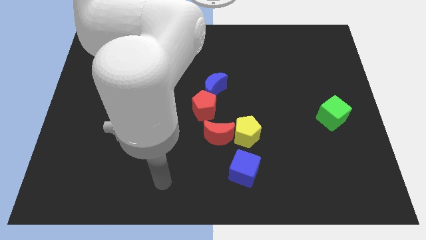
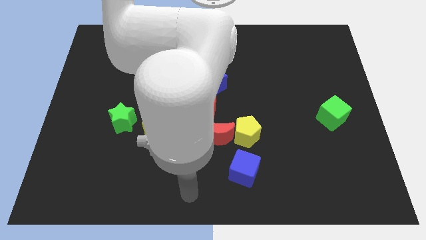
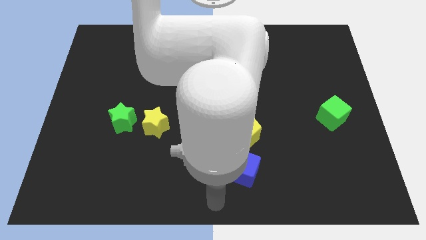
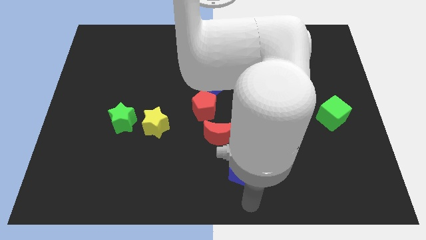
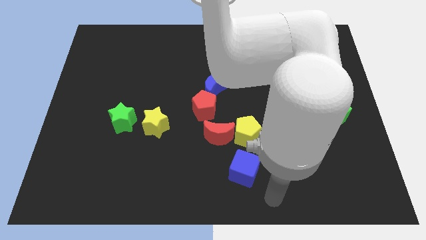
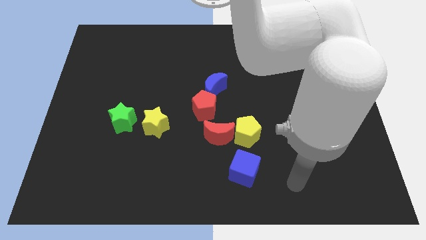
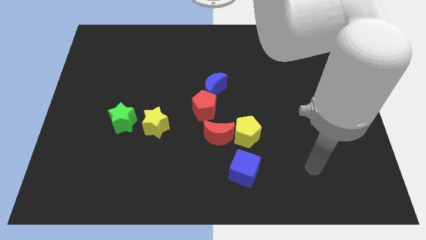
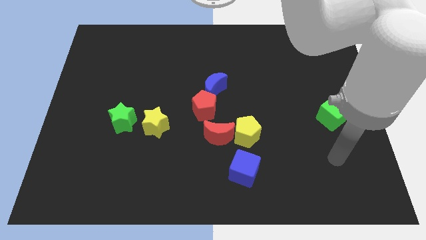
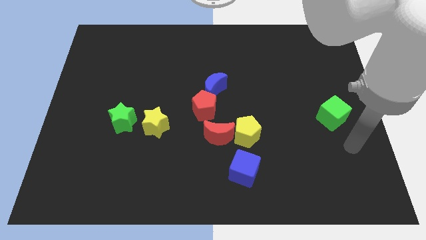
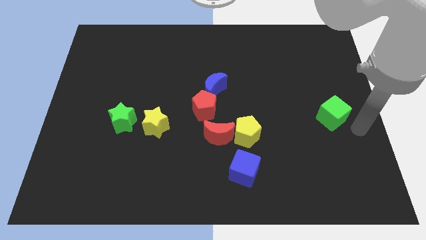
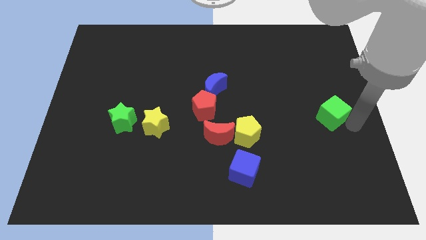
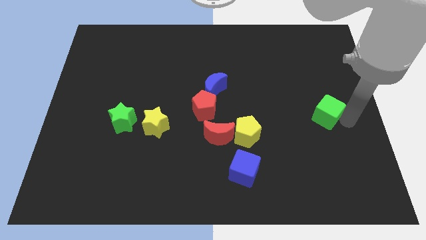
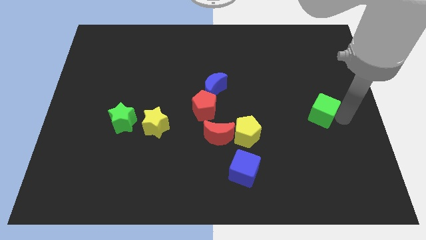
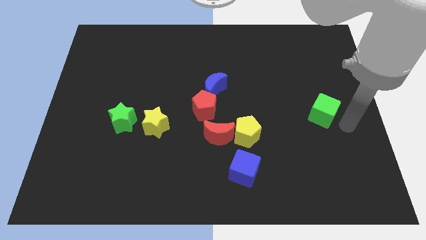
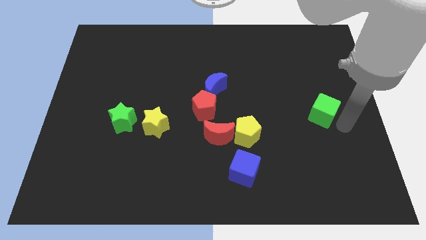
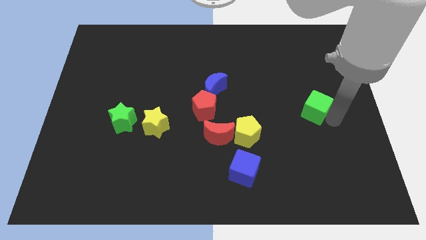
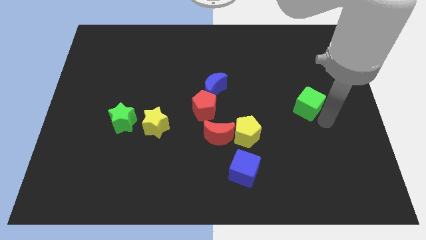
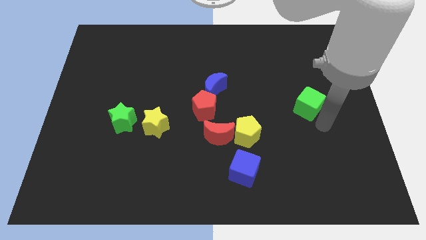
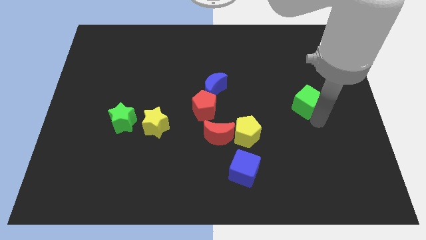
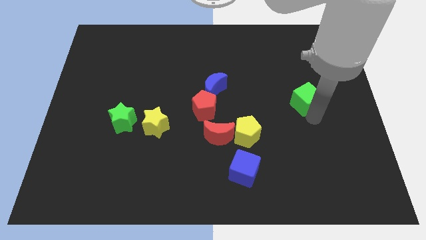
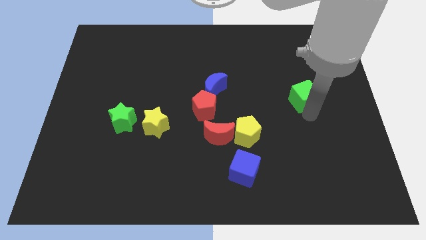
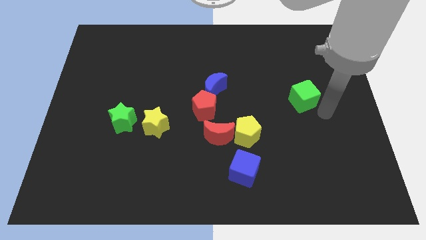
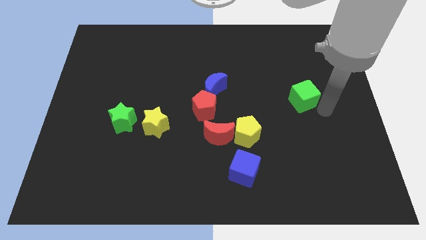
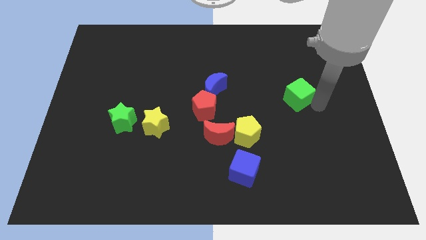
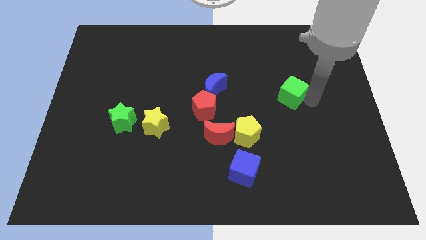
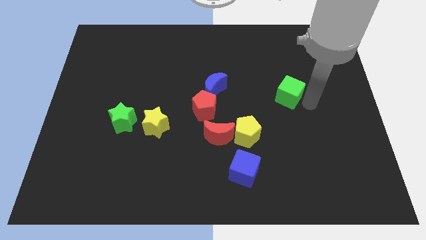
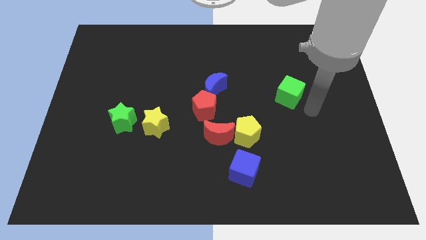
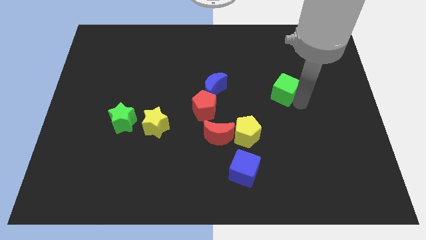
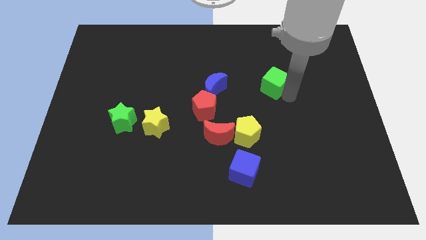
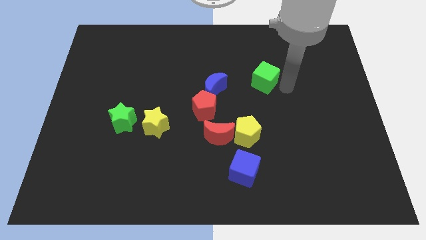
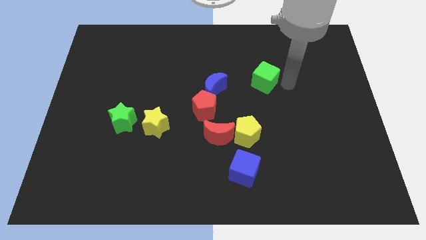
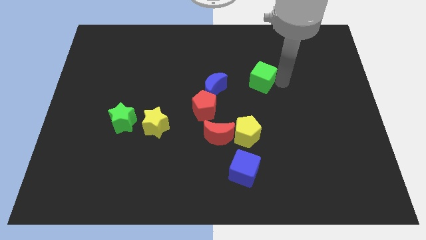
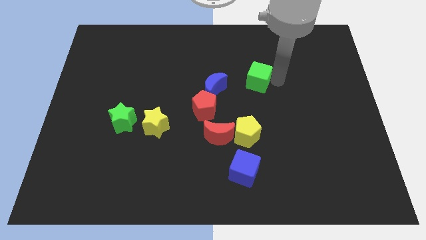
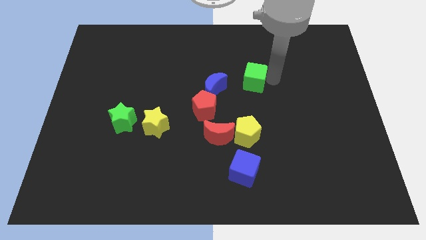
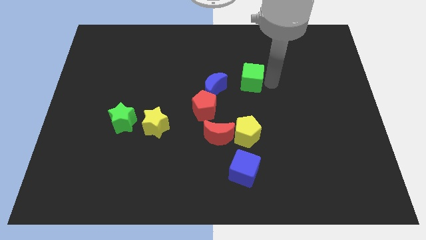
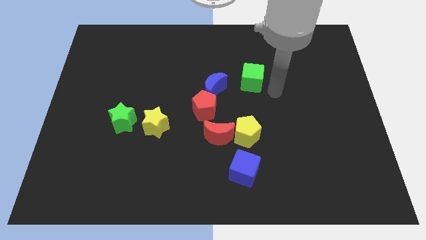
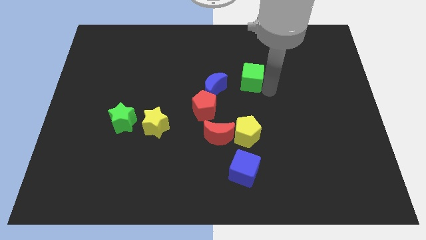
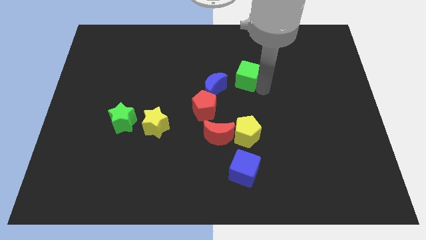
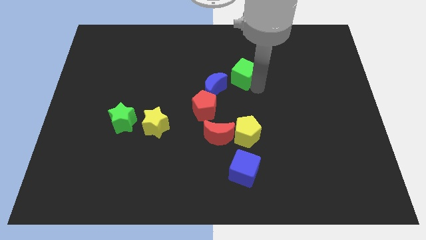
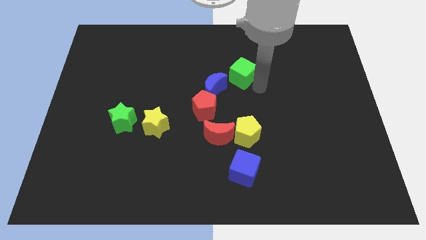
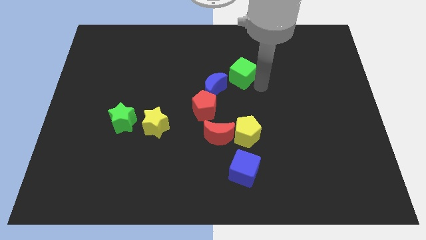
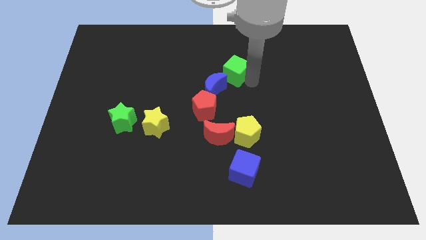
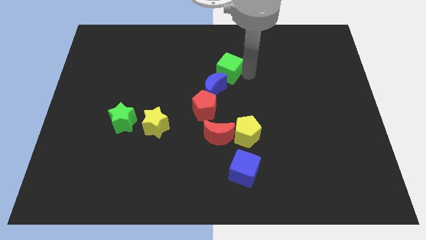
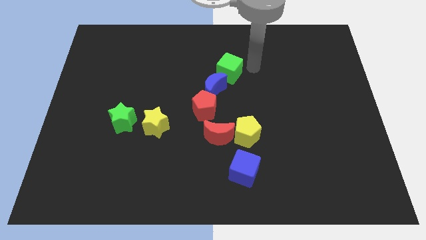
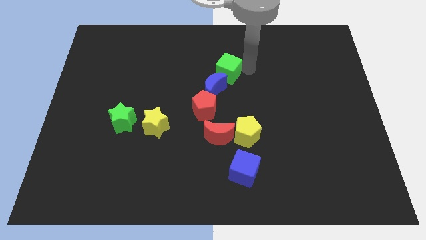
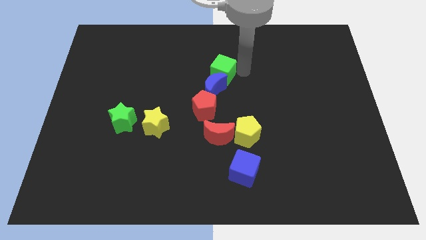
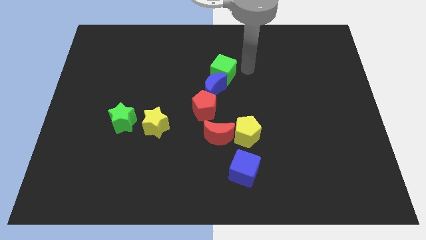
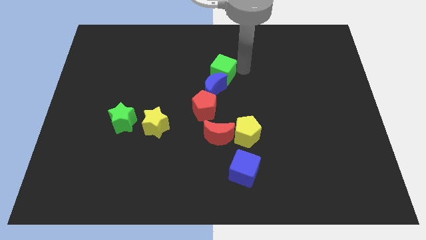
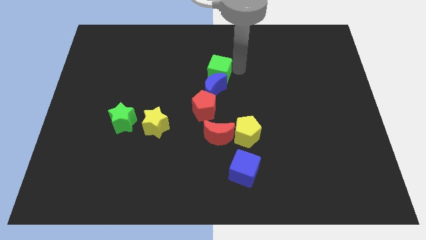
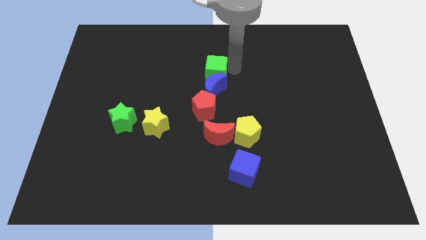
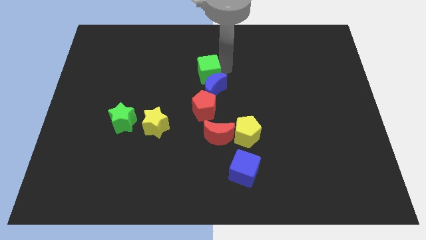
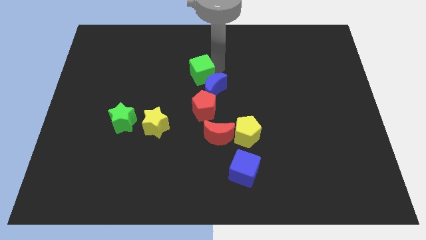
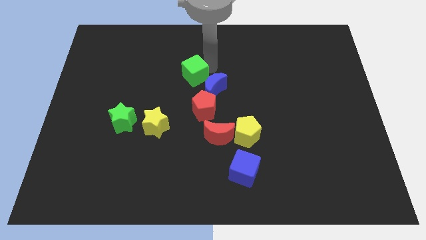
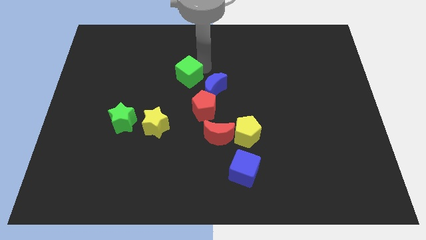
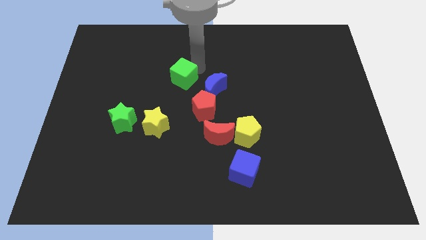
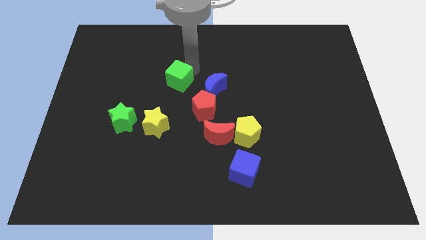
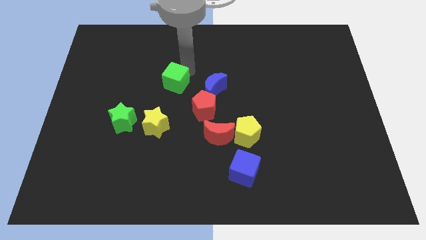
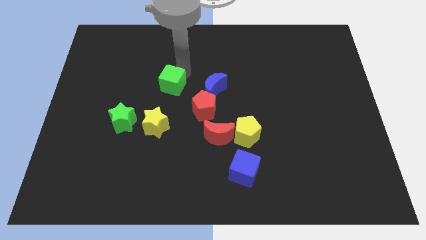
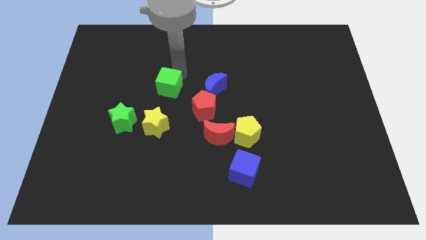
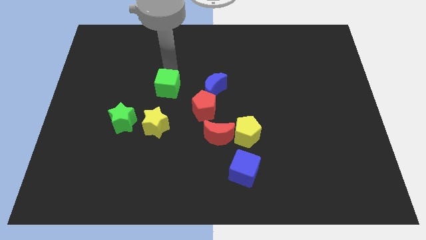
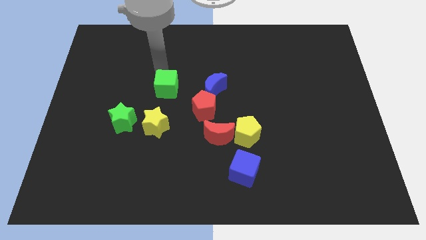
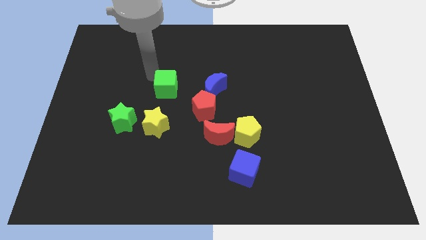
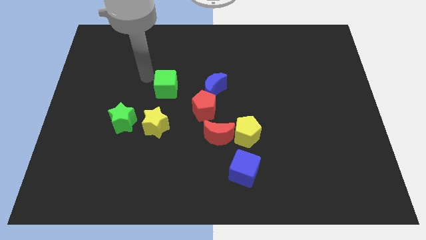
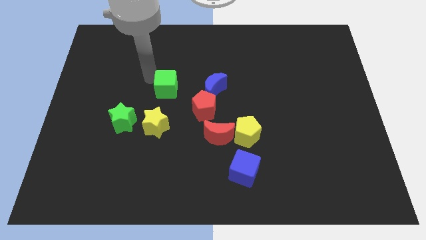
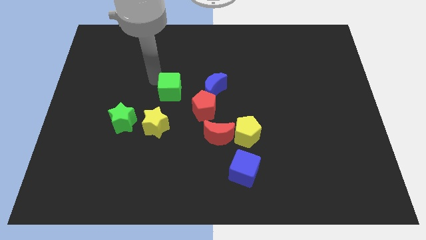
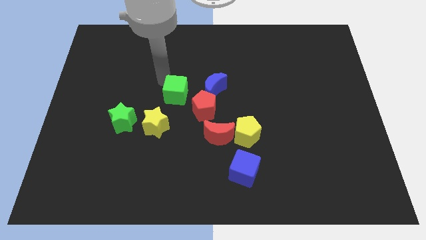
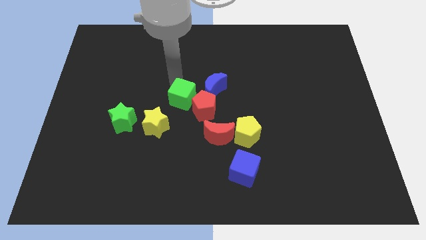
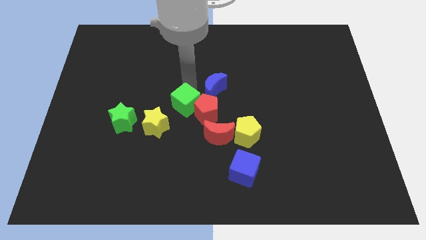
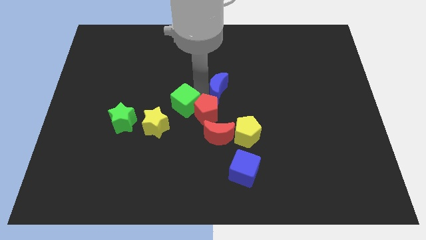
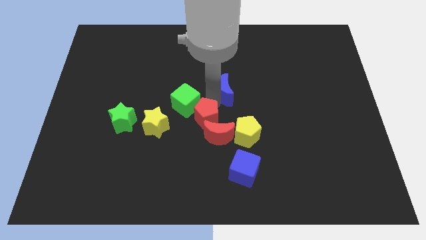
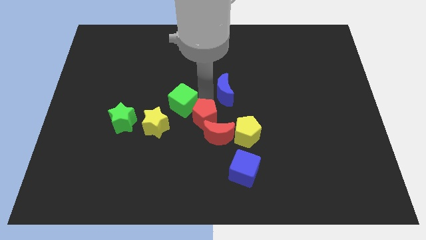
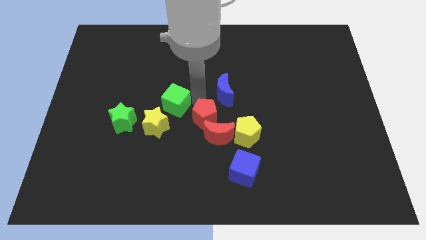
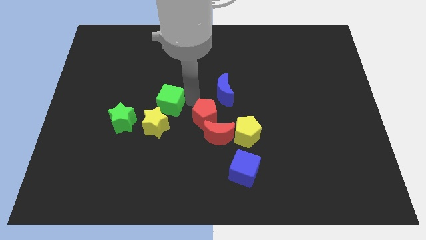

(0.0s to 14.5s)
put the green cube to the top right side of the green star

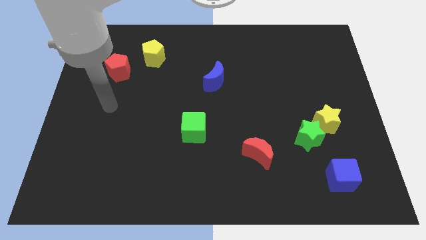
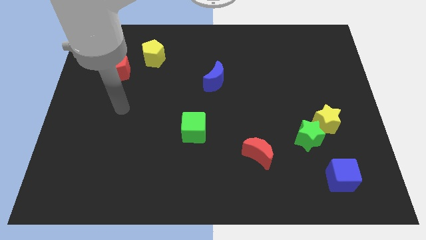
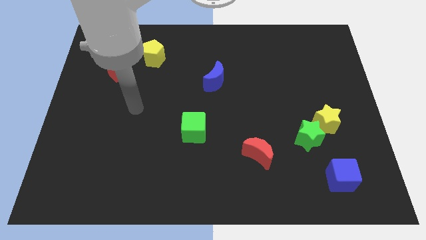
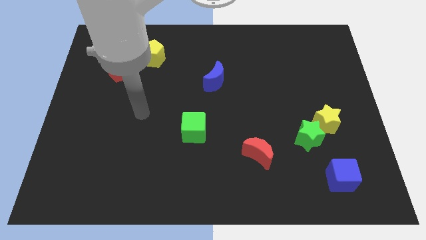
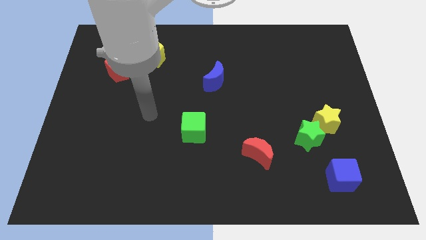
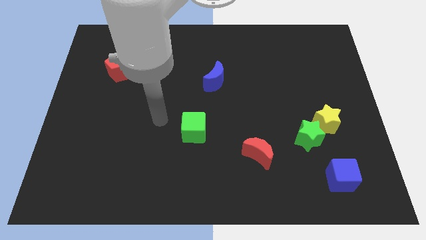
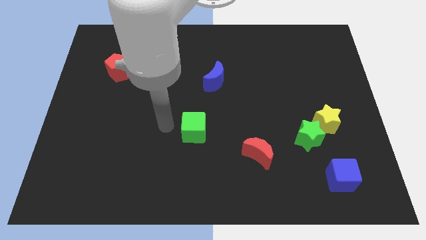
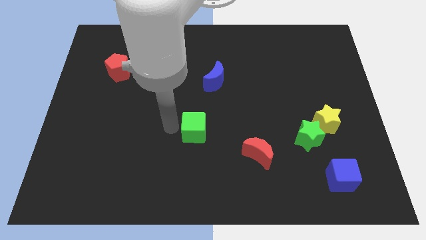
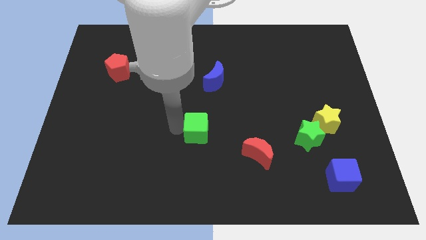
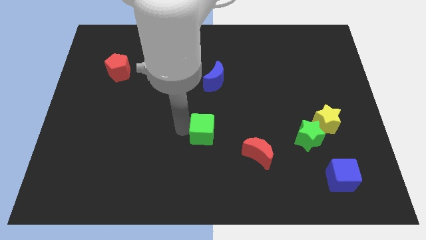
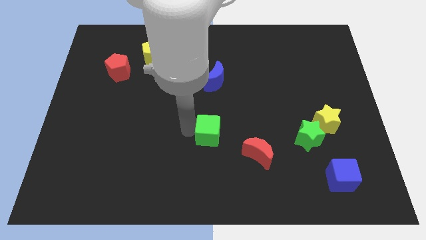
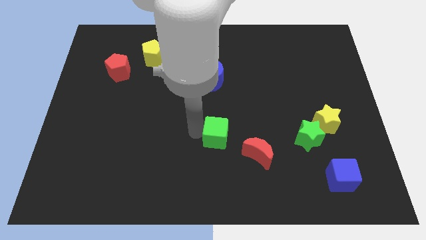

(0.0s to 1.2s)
slide the green cube to the top left side of the red moon
